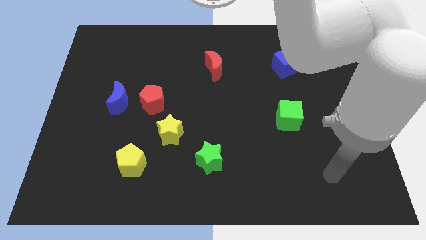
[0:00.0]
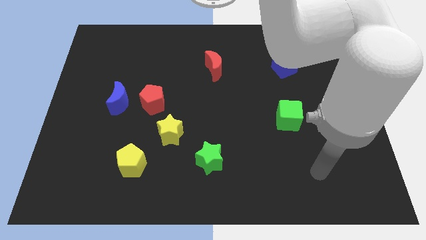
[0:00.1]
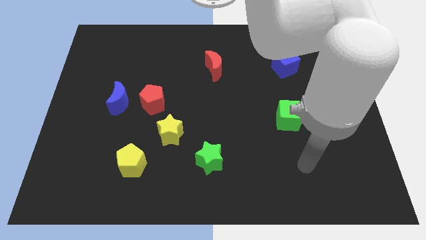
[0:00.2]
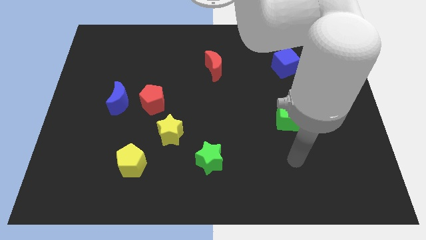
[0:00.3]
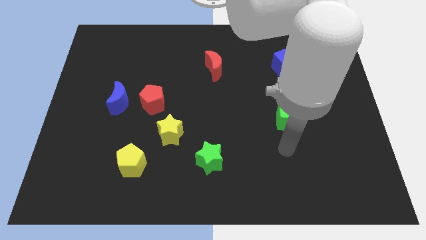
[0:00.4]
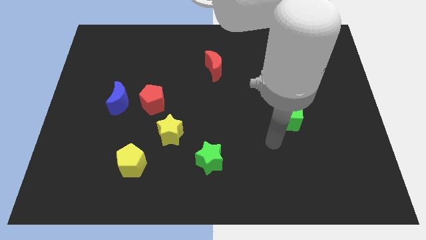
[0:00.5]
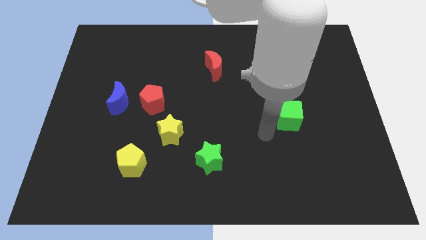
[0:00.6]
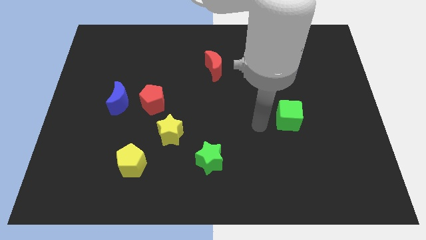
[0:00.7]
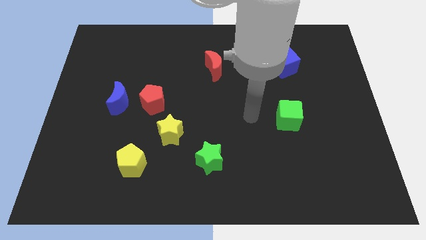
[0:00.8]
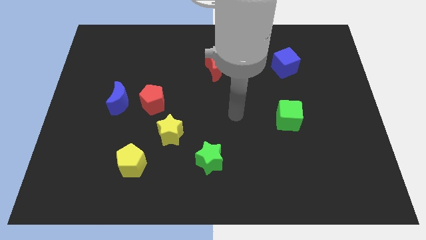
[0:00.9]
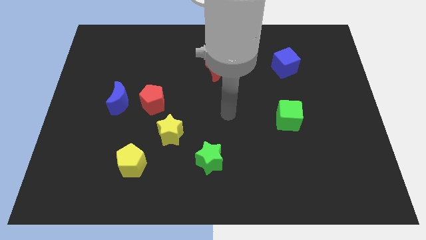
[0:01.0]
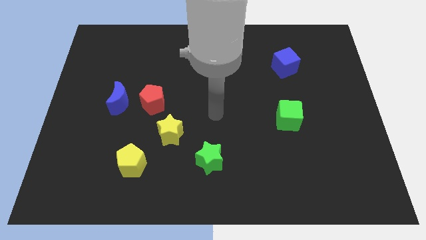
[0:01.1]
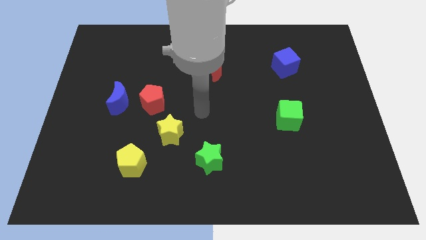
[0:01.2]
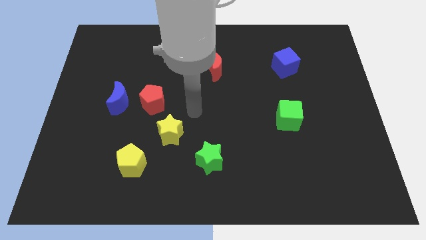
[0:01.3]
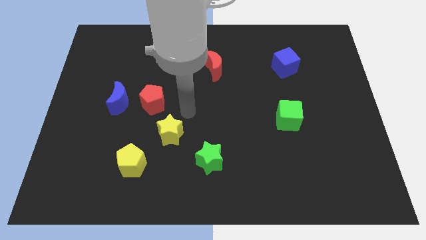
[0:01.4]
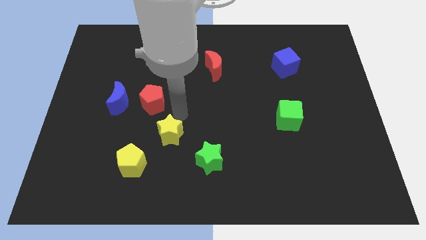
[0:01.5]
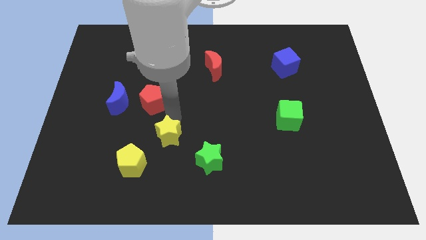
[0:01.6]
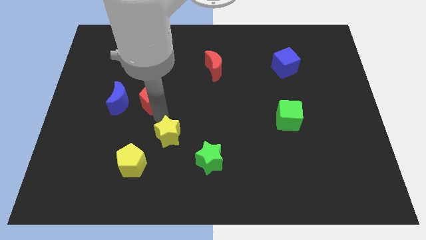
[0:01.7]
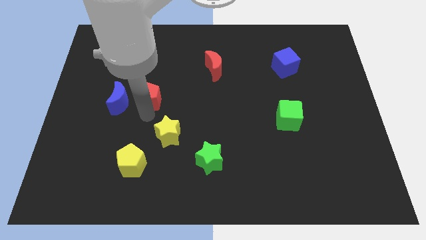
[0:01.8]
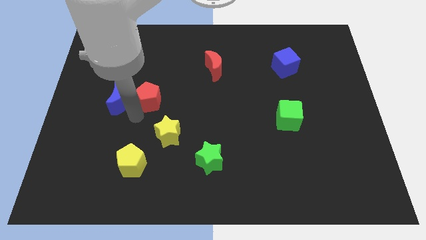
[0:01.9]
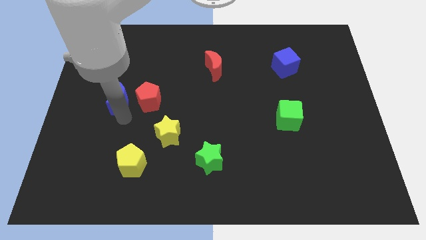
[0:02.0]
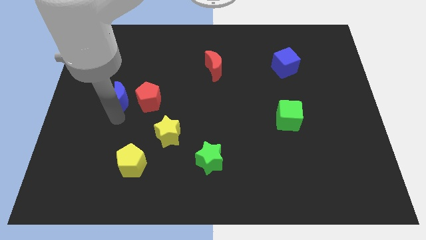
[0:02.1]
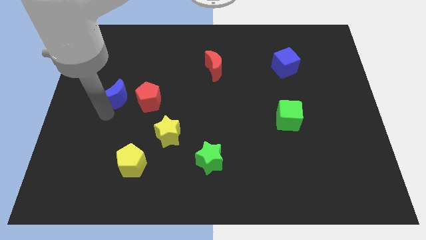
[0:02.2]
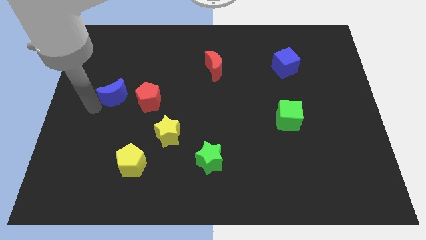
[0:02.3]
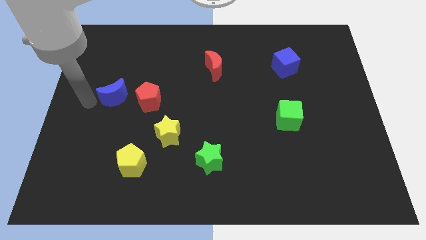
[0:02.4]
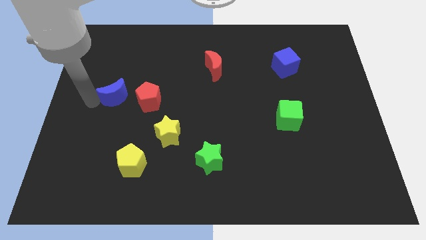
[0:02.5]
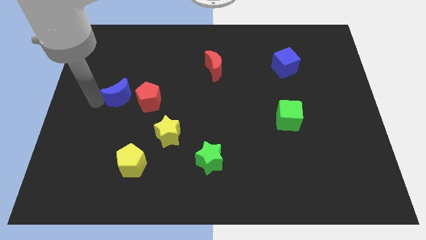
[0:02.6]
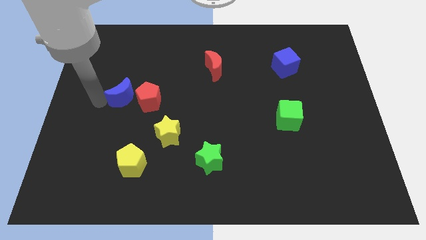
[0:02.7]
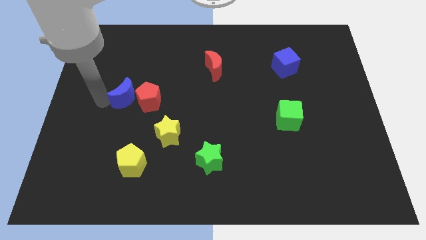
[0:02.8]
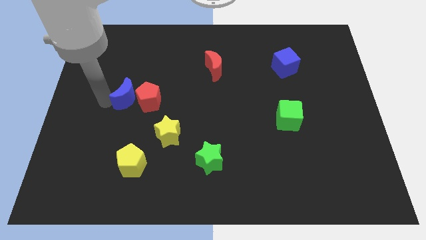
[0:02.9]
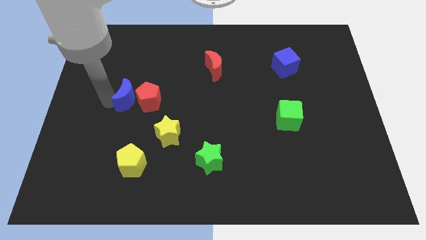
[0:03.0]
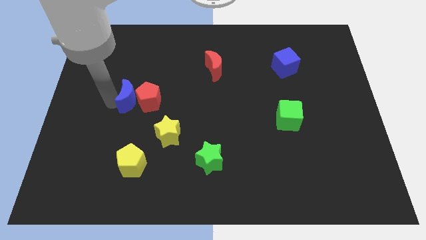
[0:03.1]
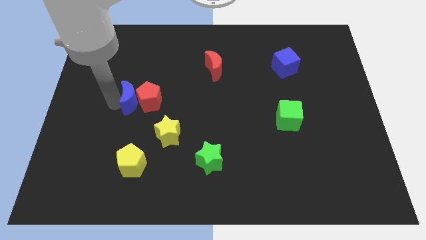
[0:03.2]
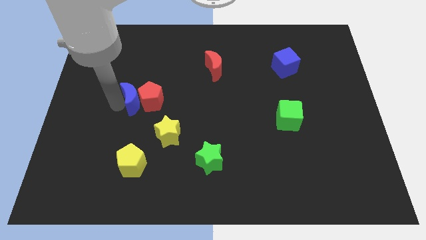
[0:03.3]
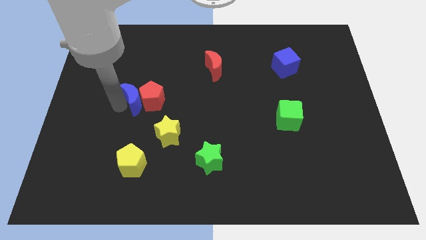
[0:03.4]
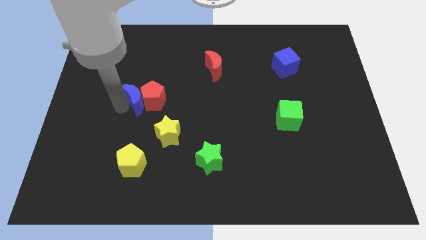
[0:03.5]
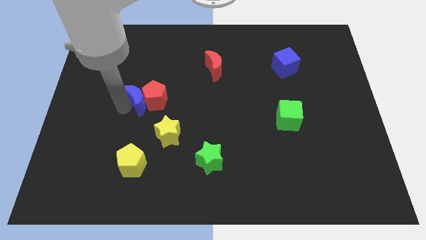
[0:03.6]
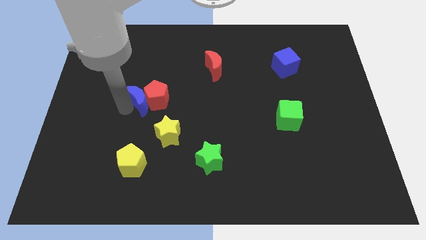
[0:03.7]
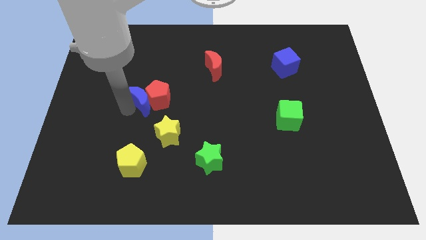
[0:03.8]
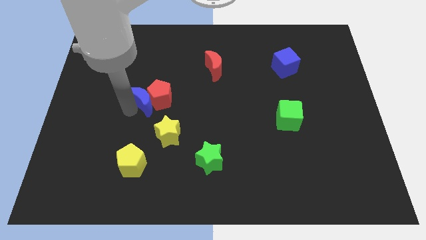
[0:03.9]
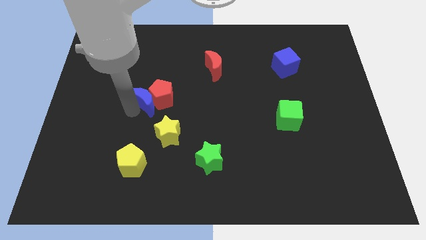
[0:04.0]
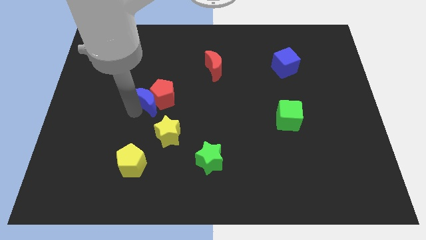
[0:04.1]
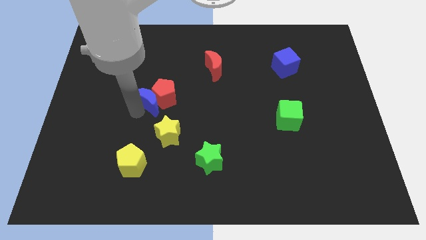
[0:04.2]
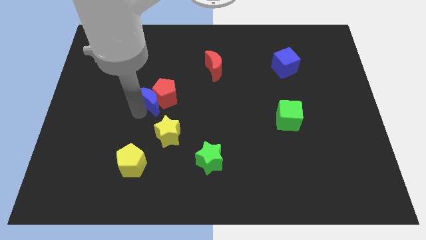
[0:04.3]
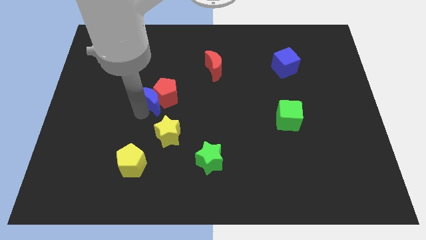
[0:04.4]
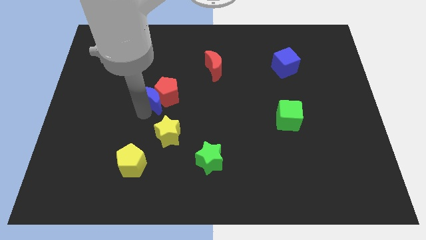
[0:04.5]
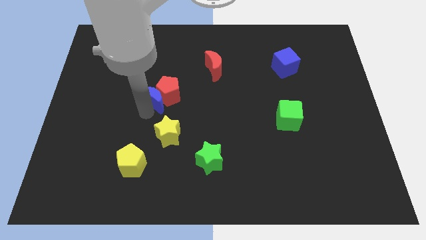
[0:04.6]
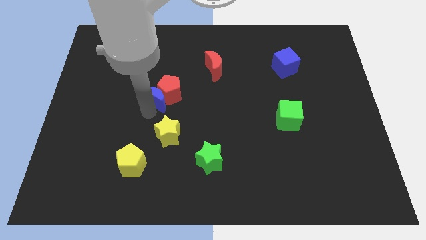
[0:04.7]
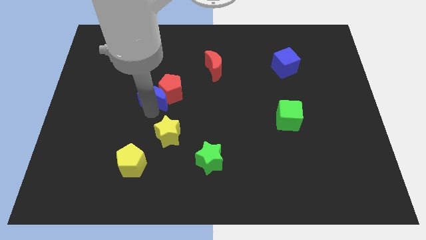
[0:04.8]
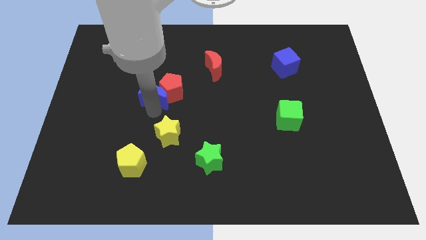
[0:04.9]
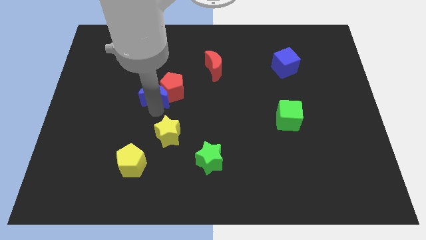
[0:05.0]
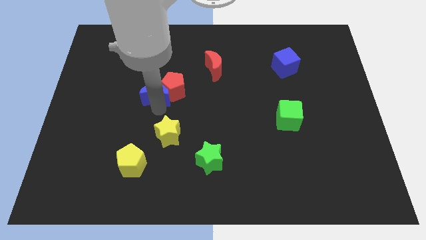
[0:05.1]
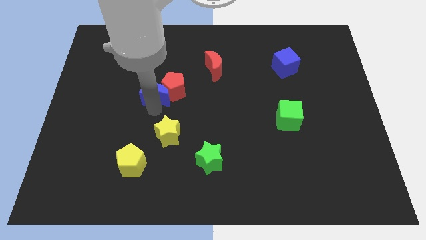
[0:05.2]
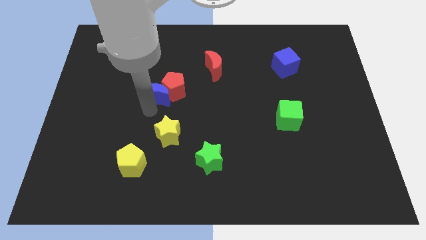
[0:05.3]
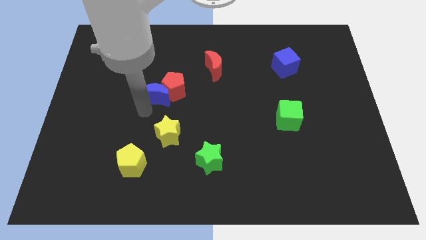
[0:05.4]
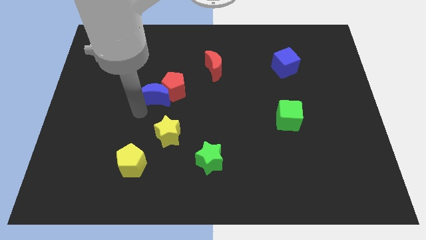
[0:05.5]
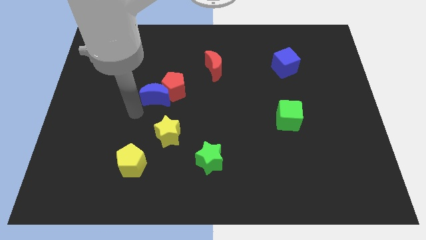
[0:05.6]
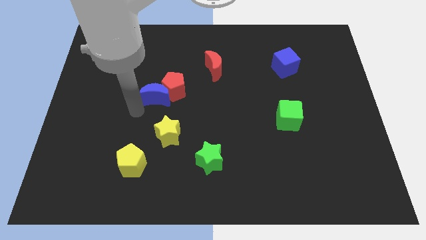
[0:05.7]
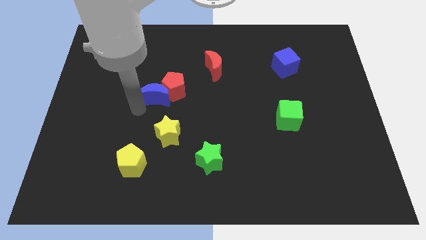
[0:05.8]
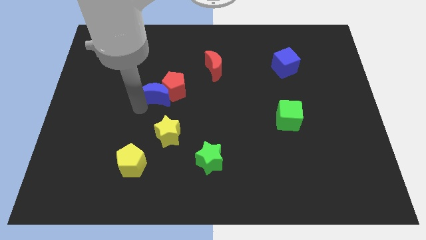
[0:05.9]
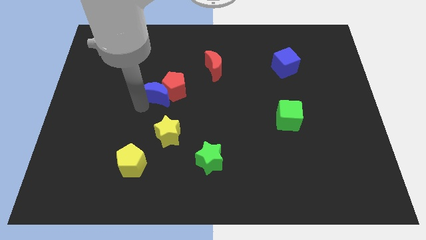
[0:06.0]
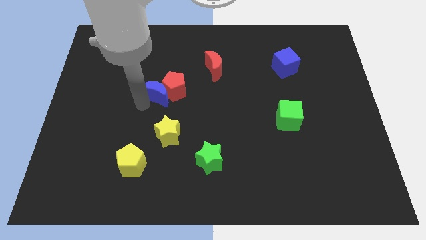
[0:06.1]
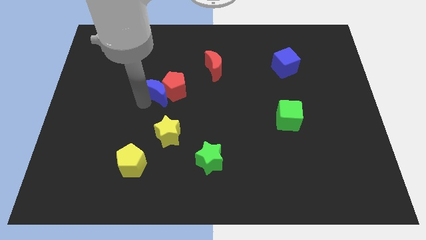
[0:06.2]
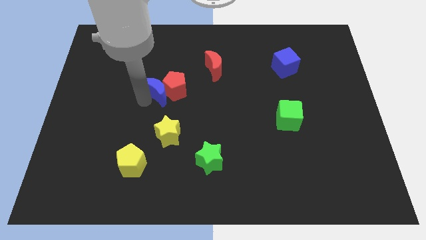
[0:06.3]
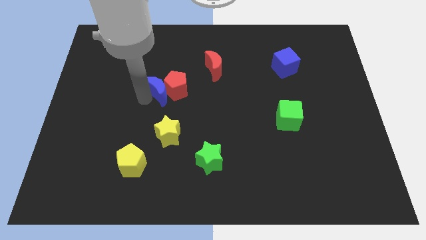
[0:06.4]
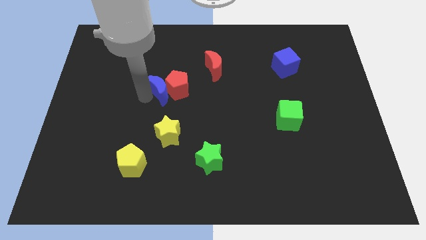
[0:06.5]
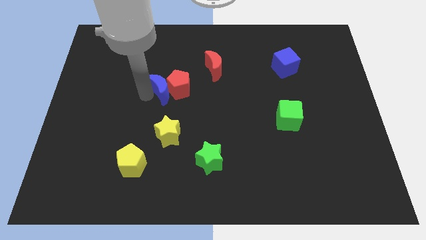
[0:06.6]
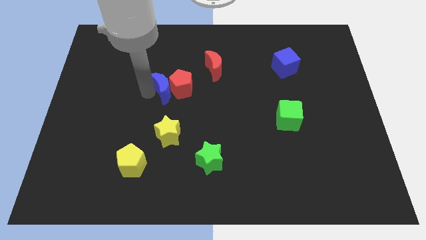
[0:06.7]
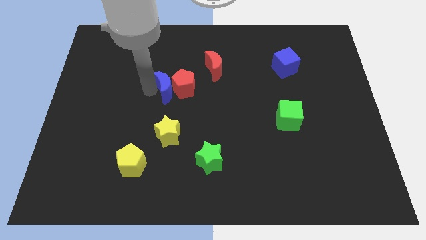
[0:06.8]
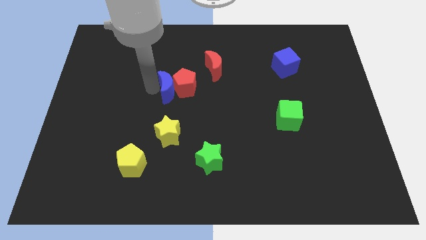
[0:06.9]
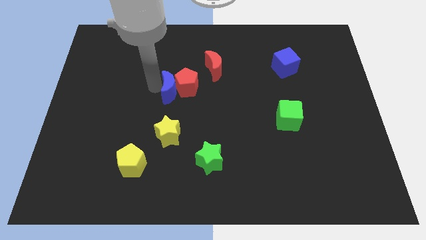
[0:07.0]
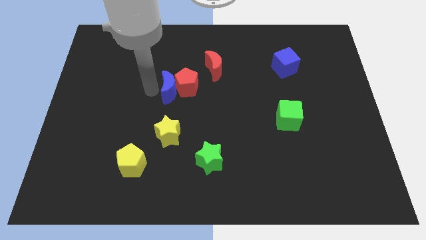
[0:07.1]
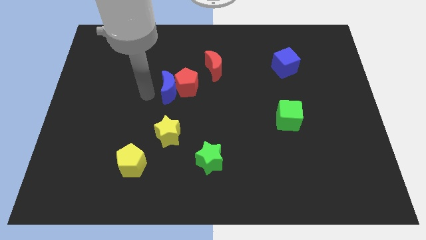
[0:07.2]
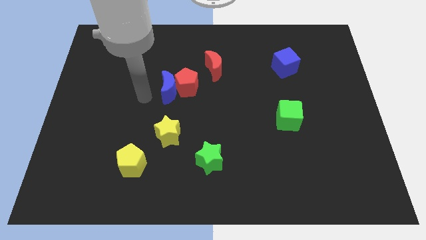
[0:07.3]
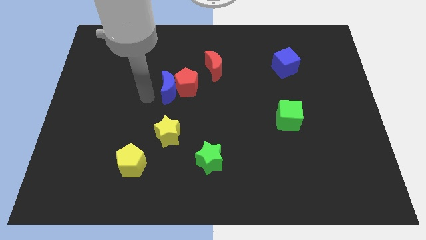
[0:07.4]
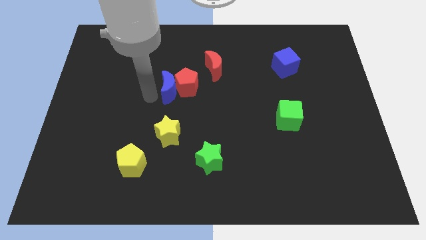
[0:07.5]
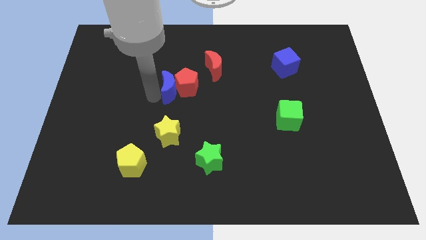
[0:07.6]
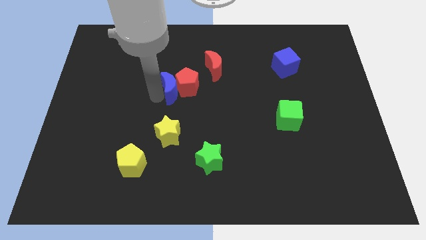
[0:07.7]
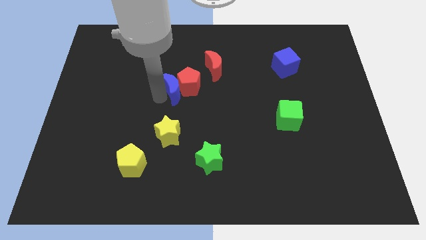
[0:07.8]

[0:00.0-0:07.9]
move the blue moon diagonally down and to the left of the red moon
